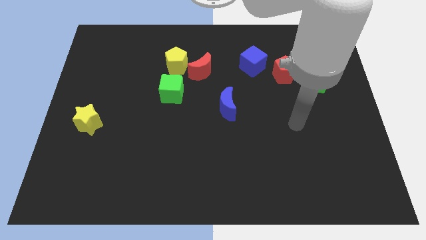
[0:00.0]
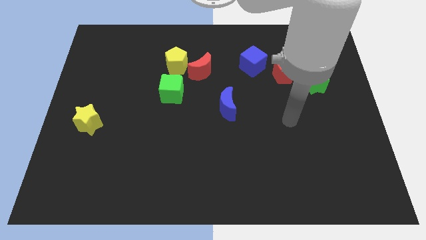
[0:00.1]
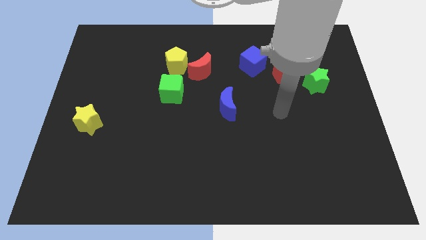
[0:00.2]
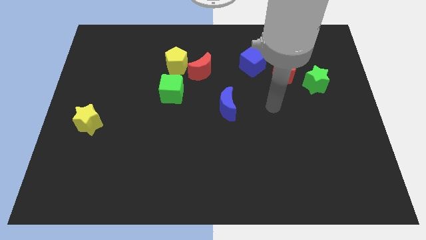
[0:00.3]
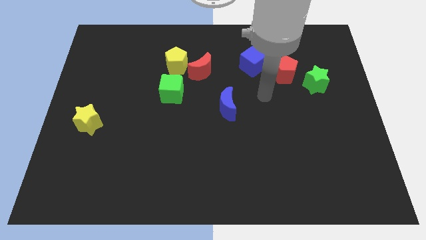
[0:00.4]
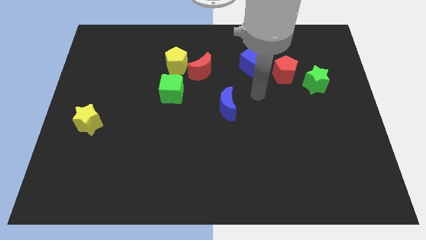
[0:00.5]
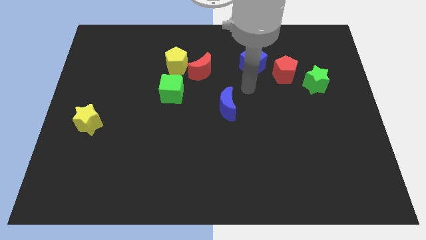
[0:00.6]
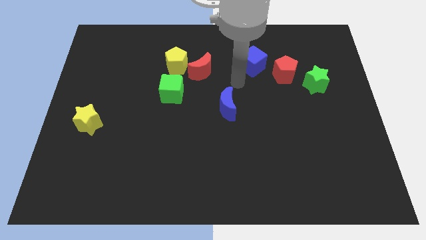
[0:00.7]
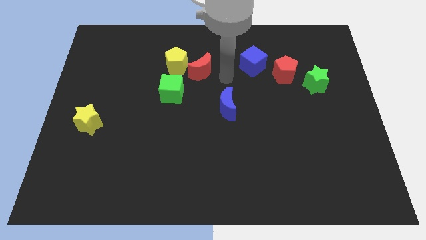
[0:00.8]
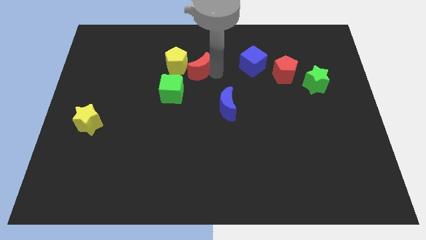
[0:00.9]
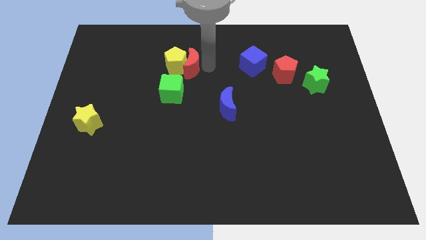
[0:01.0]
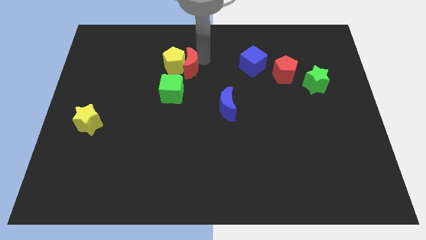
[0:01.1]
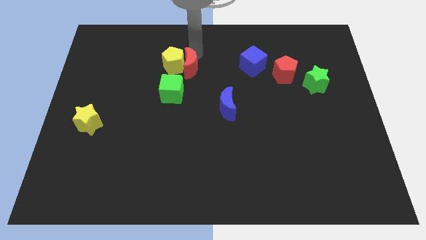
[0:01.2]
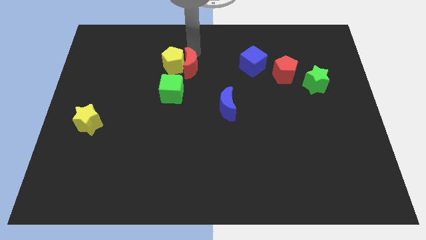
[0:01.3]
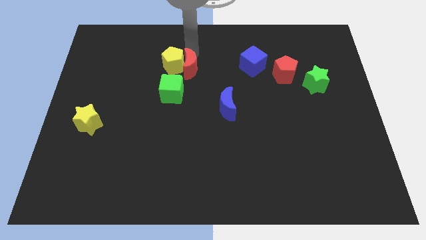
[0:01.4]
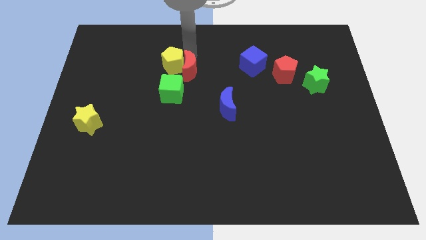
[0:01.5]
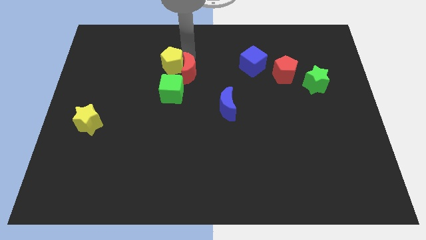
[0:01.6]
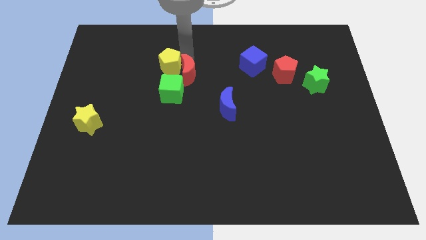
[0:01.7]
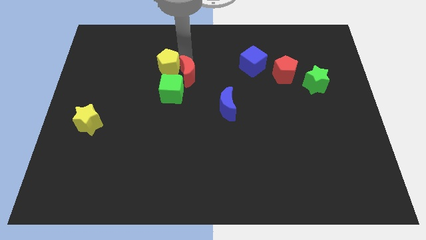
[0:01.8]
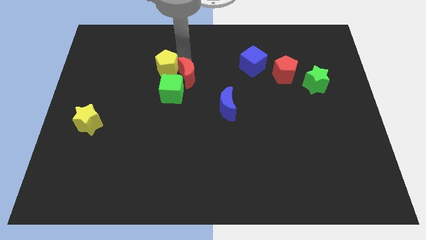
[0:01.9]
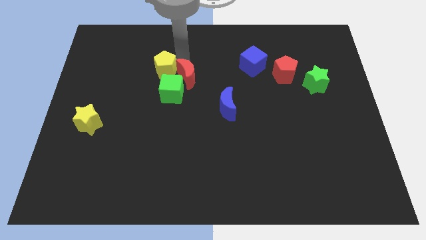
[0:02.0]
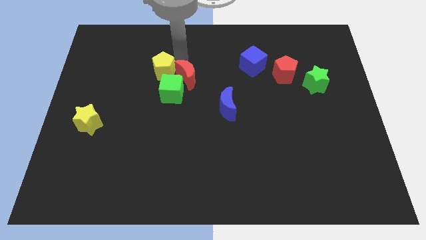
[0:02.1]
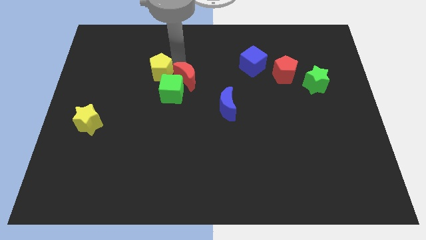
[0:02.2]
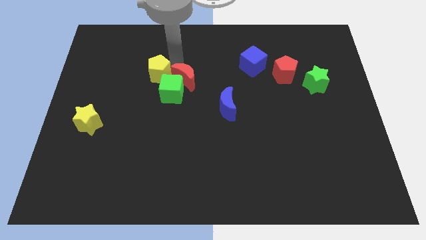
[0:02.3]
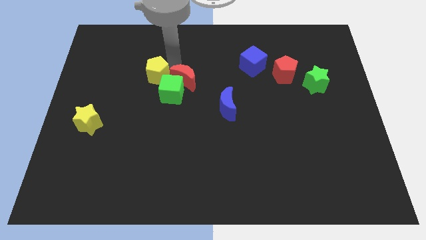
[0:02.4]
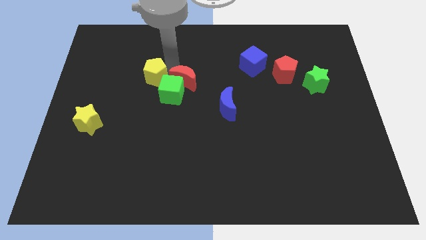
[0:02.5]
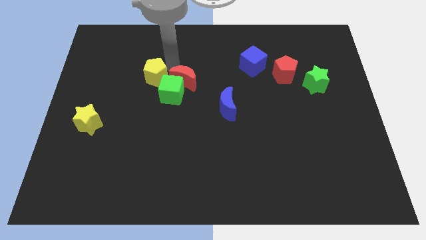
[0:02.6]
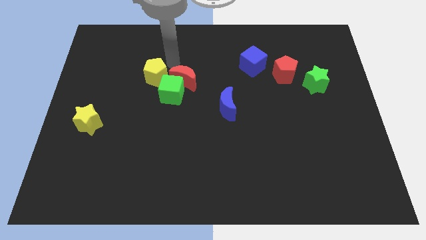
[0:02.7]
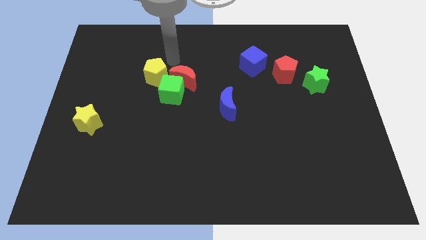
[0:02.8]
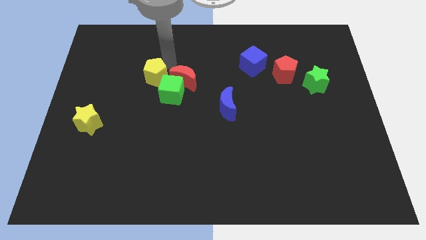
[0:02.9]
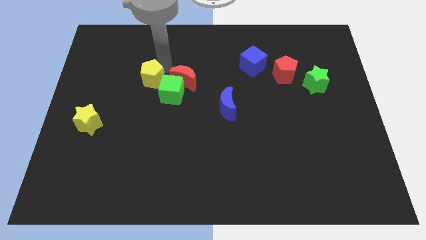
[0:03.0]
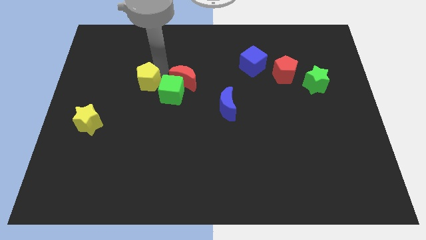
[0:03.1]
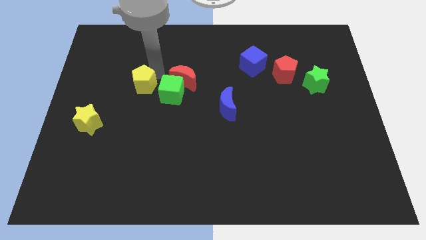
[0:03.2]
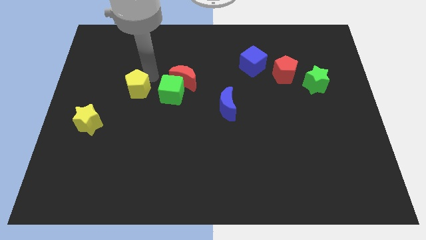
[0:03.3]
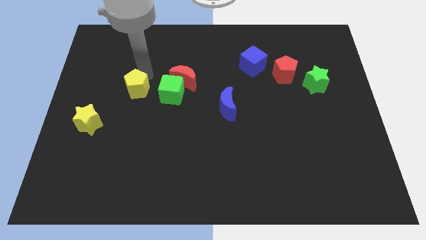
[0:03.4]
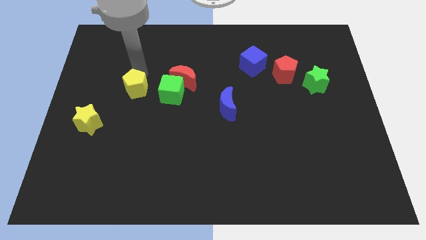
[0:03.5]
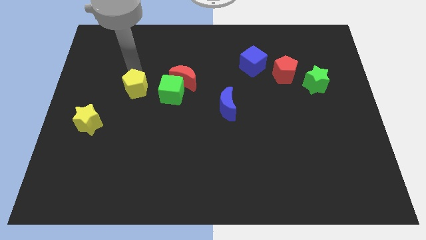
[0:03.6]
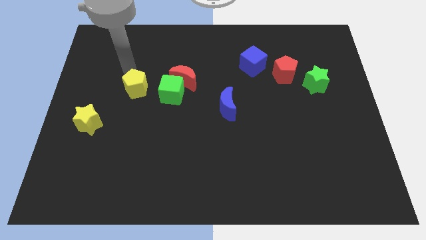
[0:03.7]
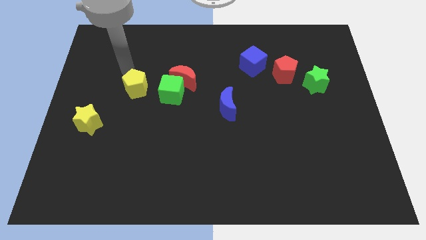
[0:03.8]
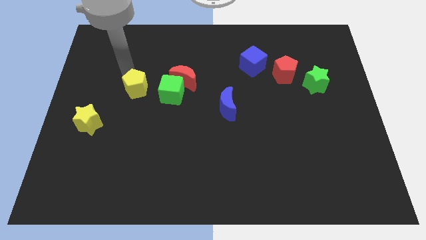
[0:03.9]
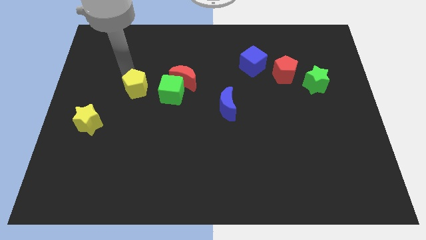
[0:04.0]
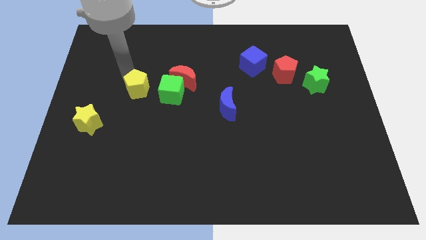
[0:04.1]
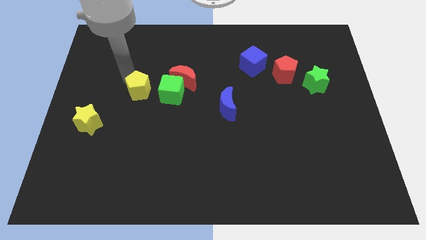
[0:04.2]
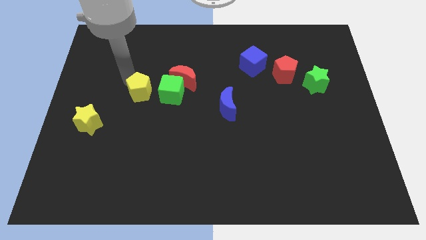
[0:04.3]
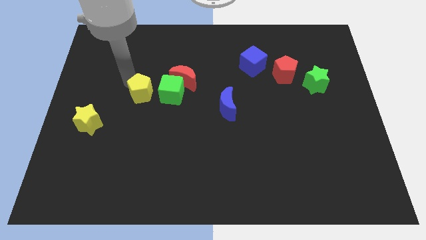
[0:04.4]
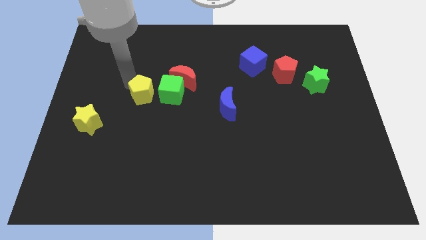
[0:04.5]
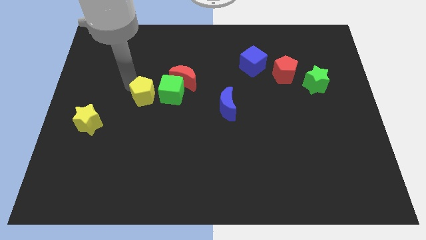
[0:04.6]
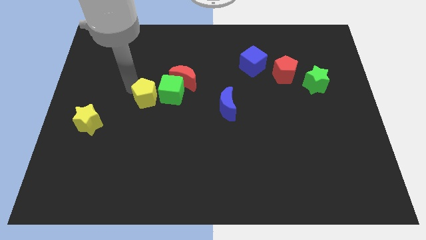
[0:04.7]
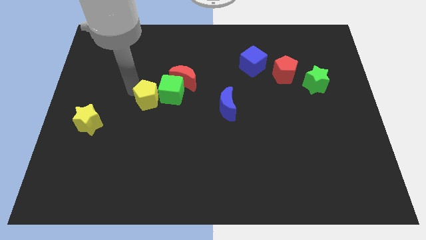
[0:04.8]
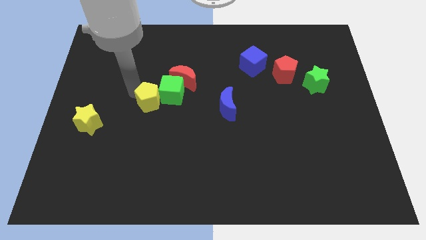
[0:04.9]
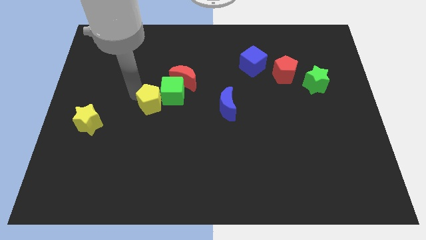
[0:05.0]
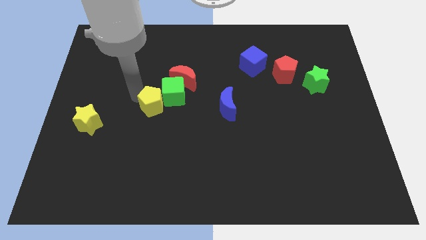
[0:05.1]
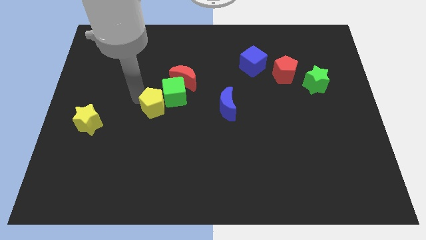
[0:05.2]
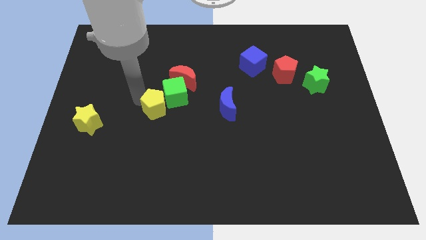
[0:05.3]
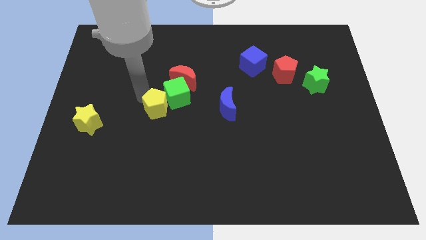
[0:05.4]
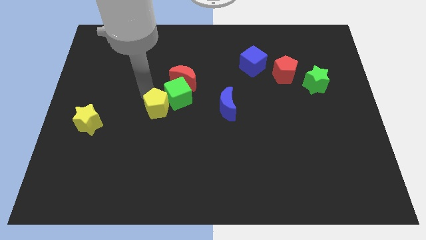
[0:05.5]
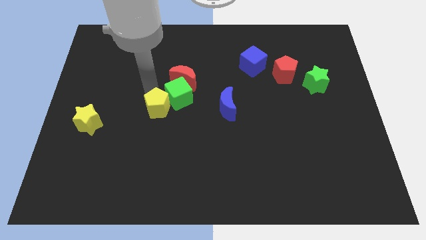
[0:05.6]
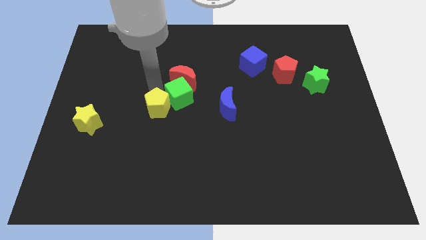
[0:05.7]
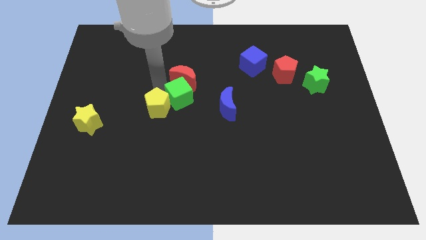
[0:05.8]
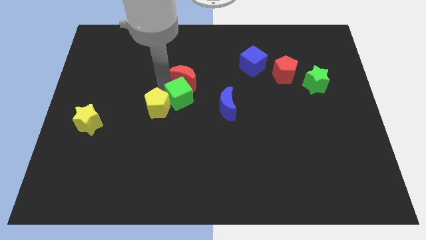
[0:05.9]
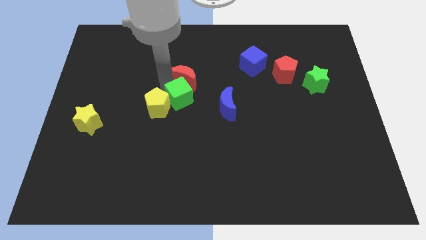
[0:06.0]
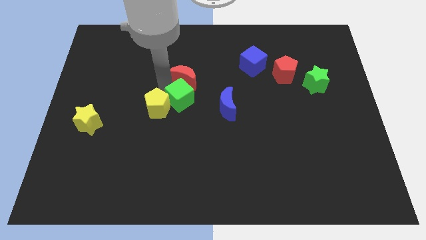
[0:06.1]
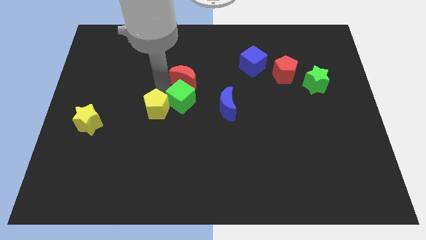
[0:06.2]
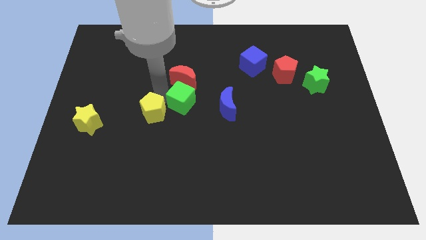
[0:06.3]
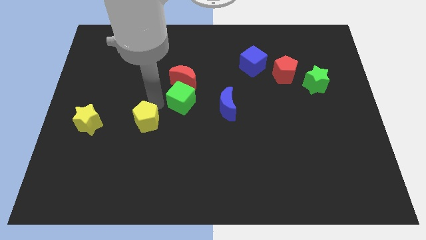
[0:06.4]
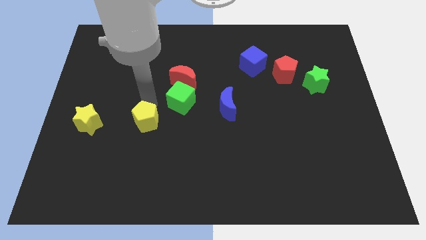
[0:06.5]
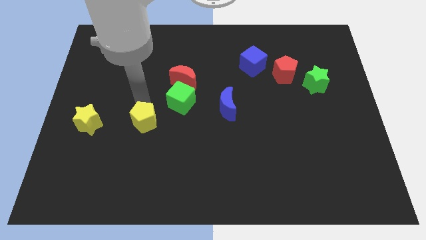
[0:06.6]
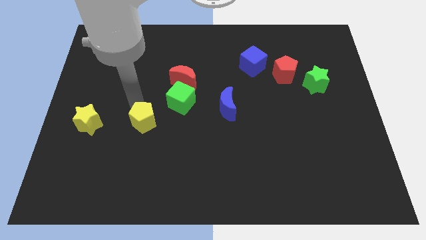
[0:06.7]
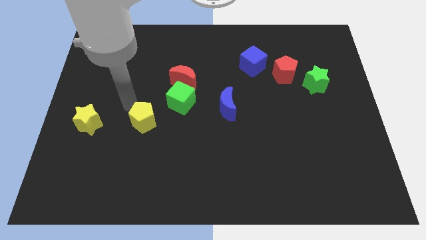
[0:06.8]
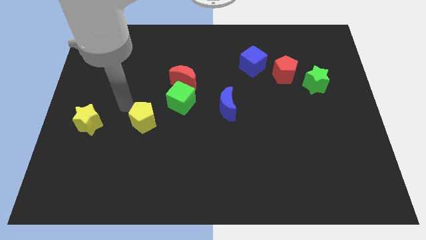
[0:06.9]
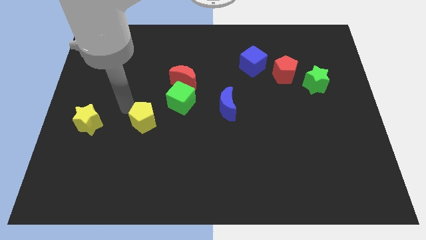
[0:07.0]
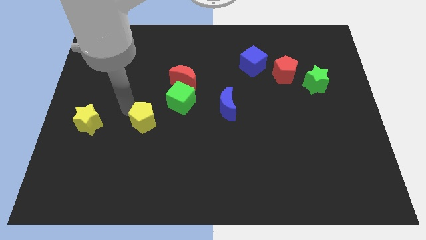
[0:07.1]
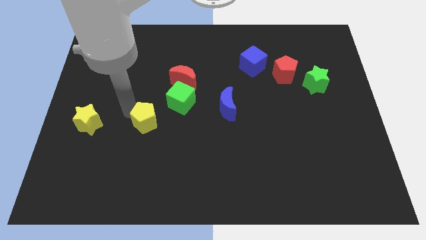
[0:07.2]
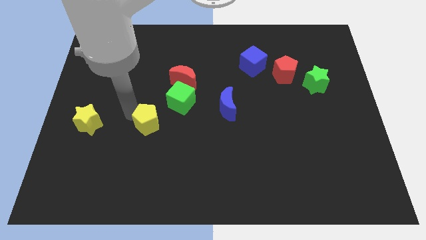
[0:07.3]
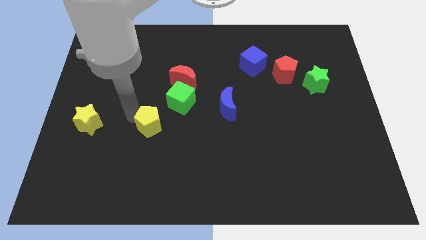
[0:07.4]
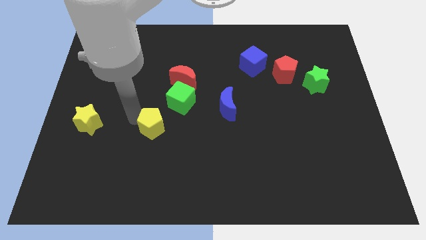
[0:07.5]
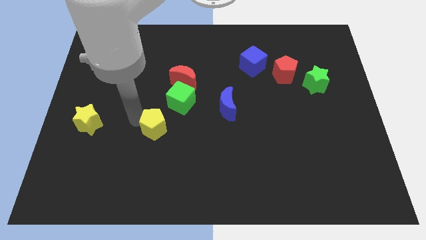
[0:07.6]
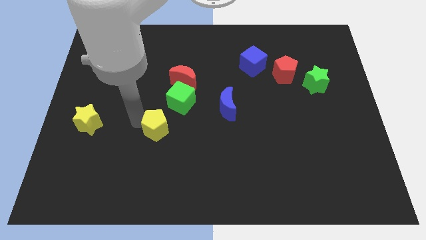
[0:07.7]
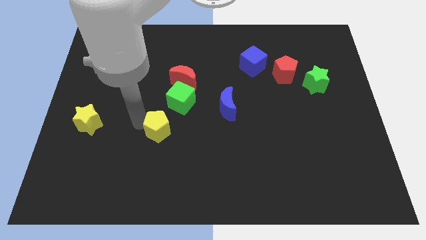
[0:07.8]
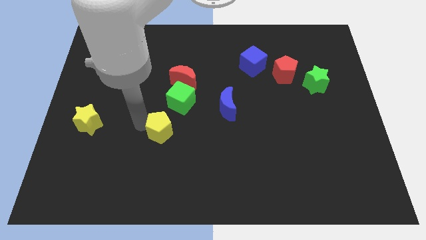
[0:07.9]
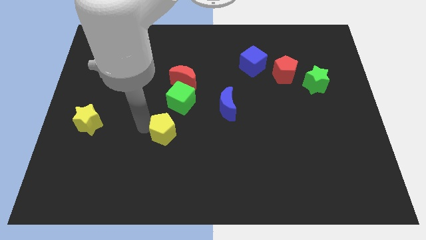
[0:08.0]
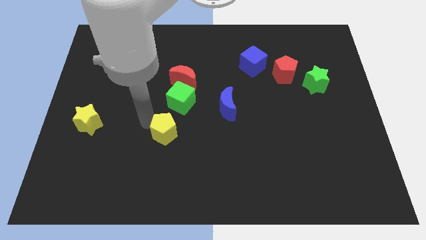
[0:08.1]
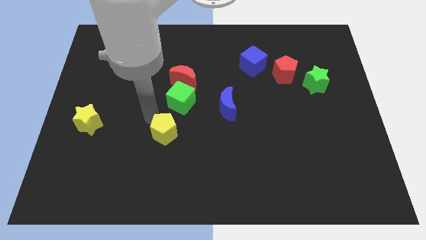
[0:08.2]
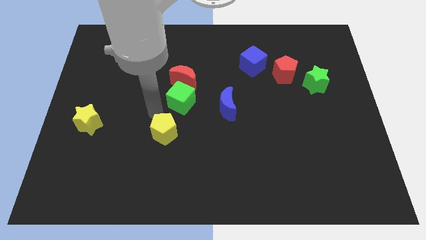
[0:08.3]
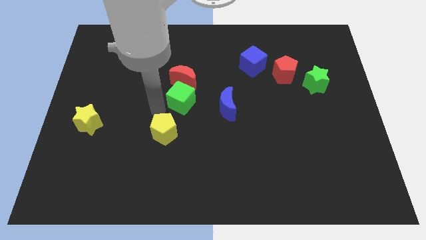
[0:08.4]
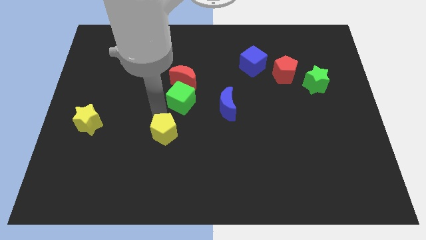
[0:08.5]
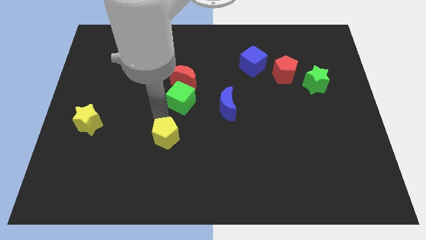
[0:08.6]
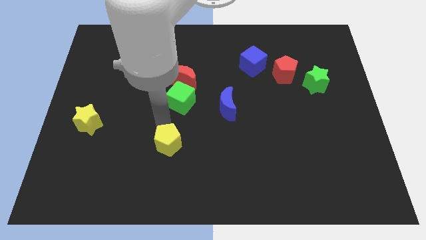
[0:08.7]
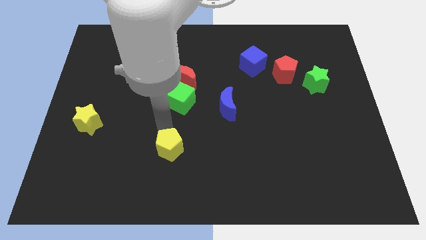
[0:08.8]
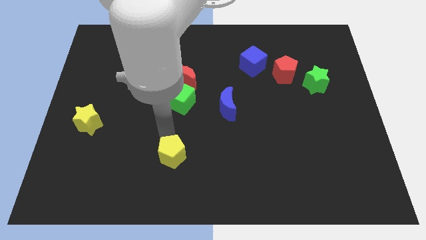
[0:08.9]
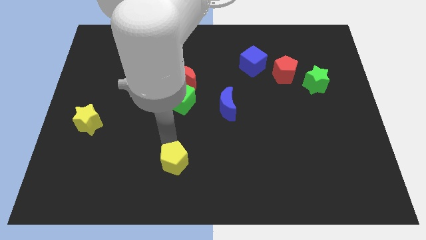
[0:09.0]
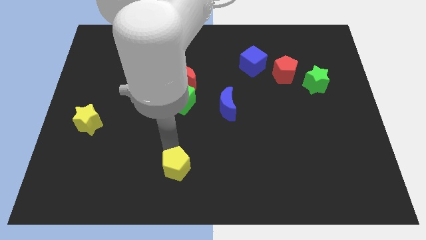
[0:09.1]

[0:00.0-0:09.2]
slide the yellow pentagon to the bottom
